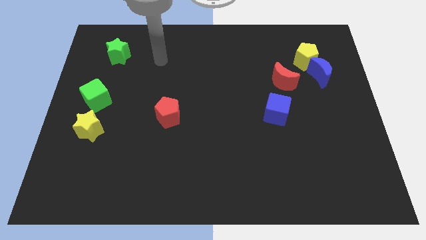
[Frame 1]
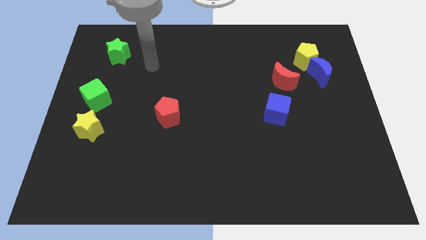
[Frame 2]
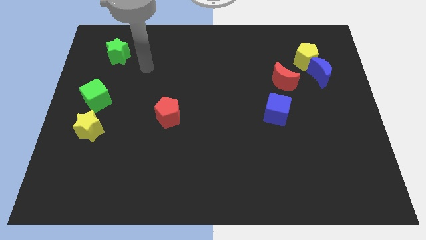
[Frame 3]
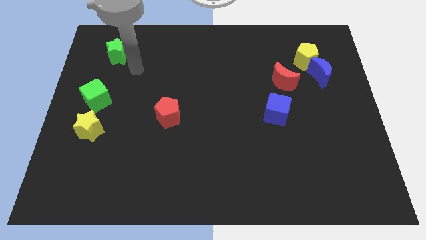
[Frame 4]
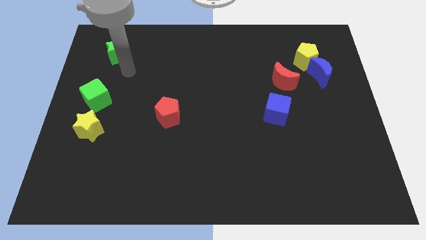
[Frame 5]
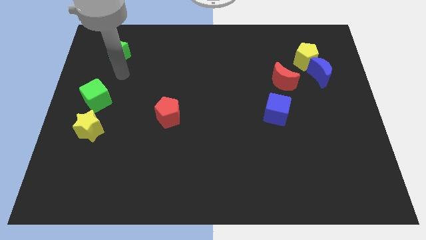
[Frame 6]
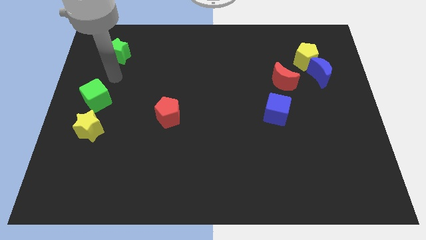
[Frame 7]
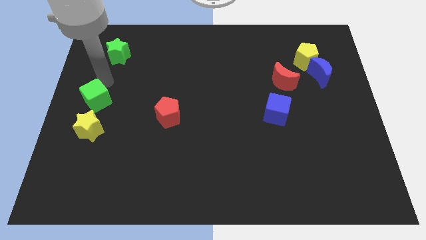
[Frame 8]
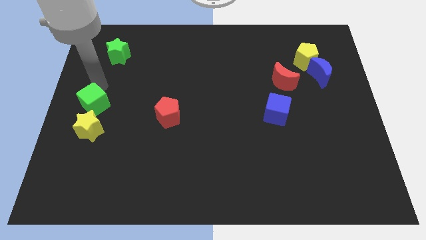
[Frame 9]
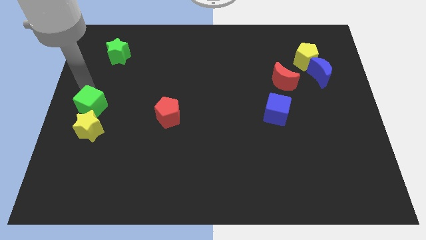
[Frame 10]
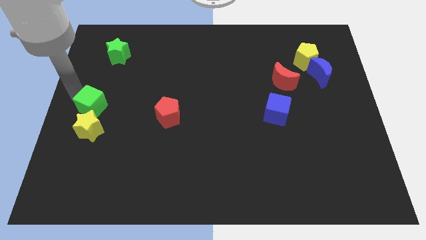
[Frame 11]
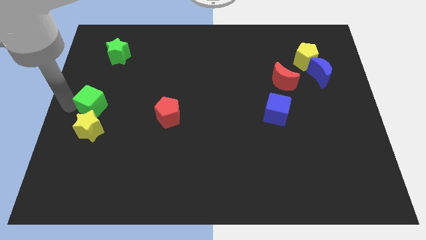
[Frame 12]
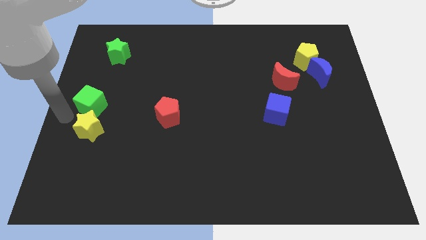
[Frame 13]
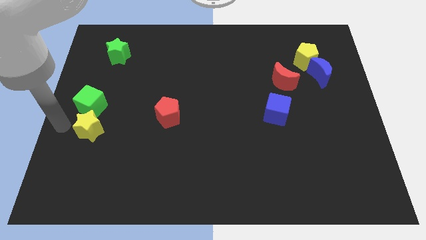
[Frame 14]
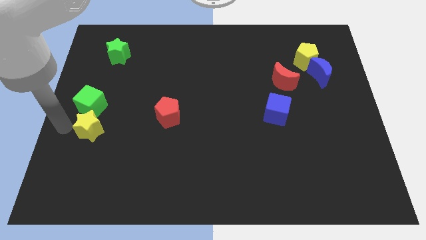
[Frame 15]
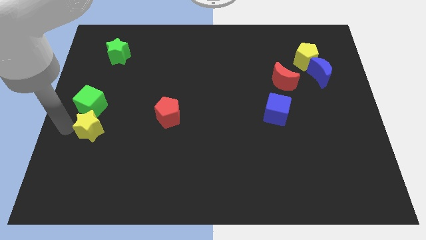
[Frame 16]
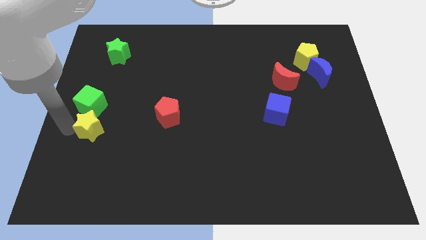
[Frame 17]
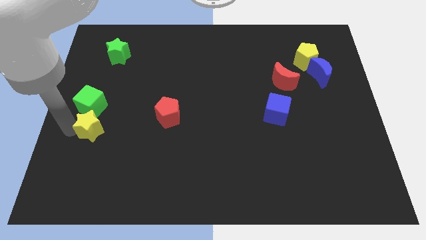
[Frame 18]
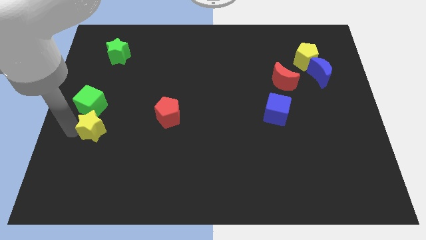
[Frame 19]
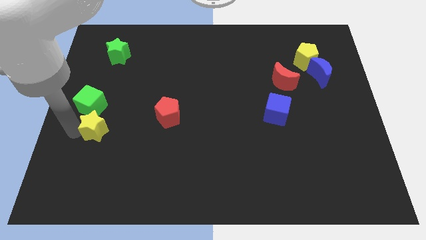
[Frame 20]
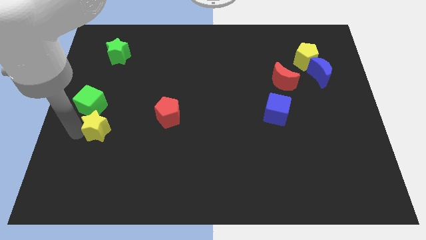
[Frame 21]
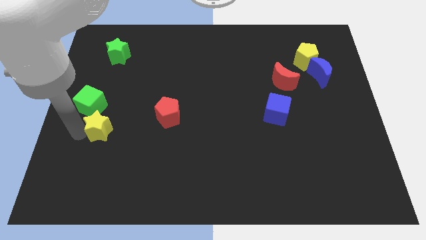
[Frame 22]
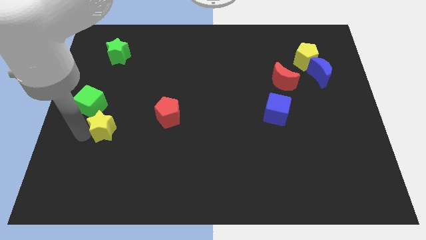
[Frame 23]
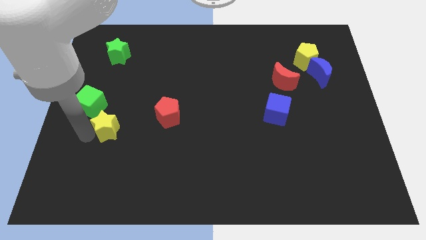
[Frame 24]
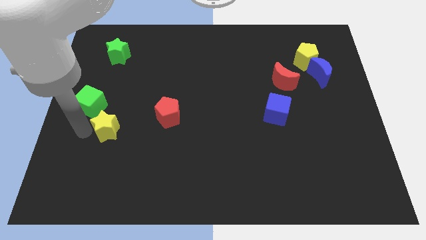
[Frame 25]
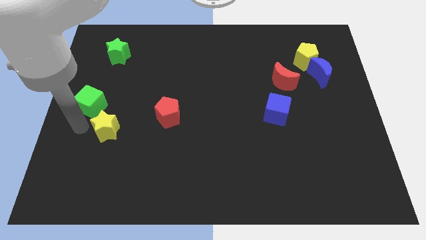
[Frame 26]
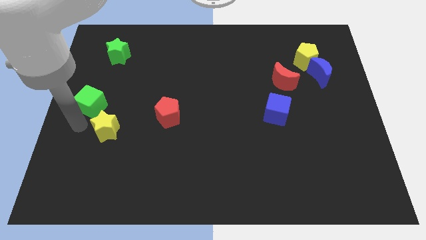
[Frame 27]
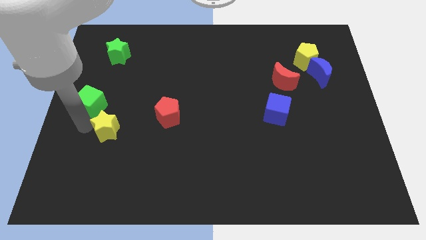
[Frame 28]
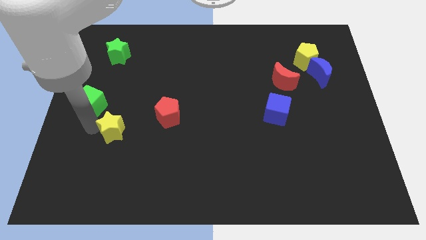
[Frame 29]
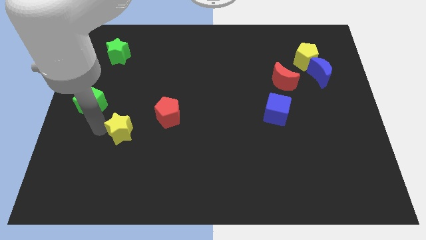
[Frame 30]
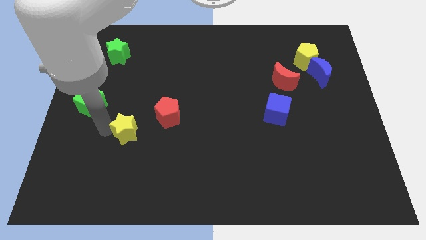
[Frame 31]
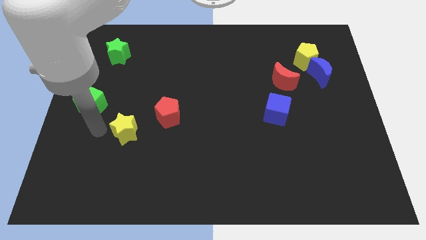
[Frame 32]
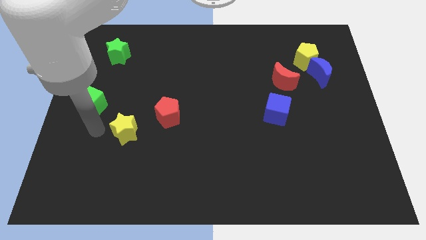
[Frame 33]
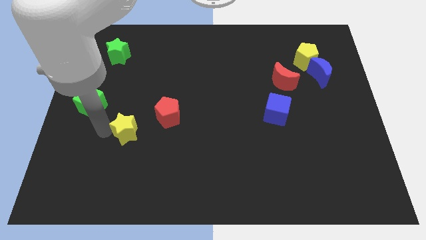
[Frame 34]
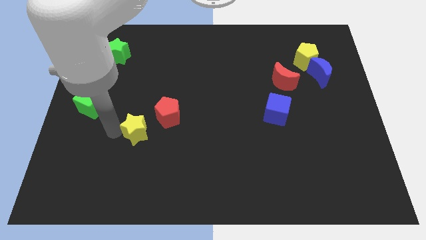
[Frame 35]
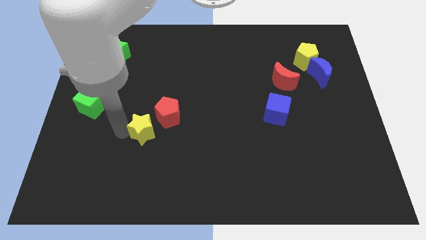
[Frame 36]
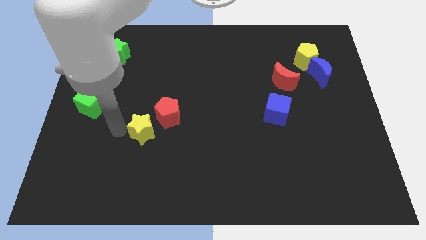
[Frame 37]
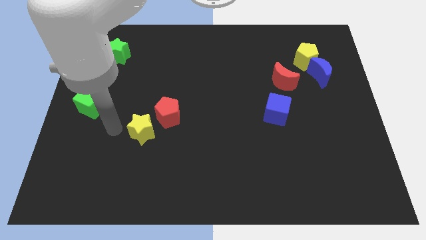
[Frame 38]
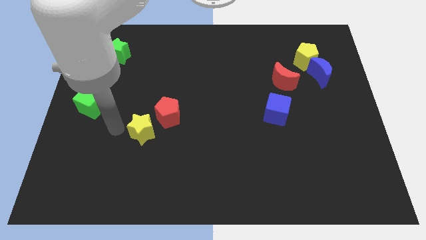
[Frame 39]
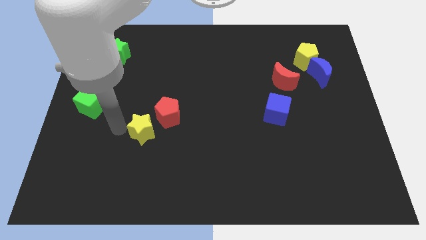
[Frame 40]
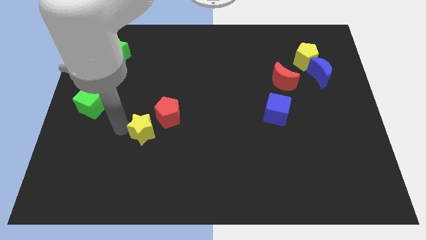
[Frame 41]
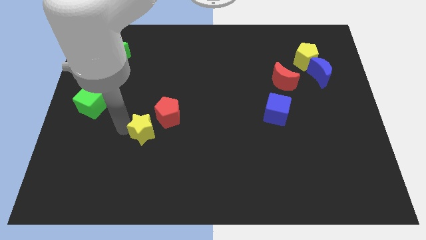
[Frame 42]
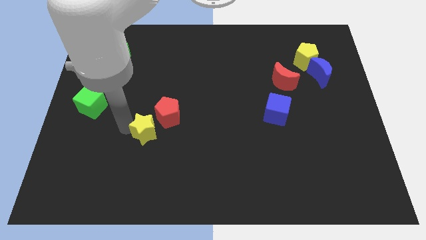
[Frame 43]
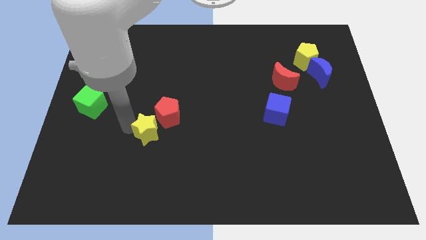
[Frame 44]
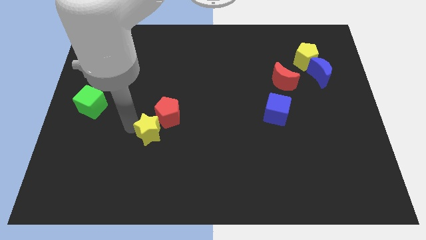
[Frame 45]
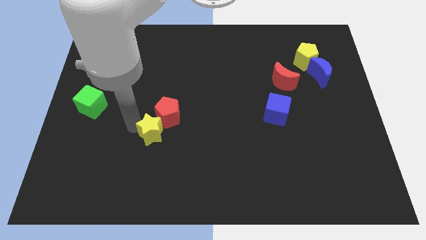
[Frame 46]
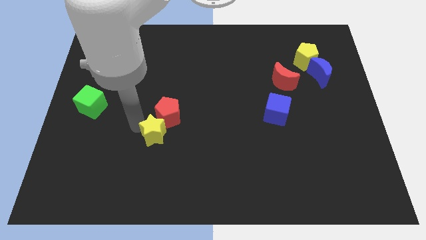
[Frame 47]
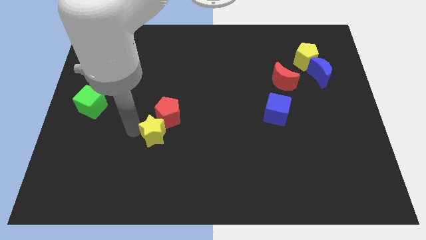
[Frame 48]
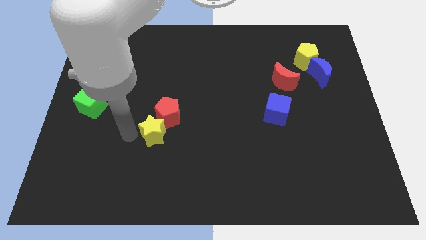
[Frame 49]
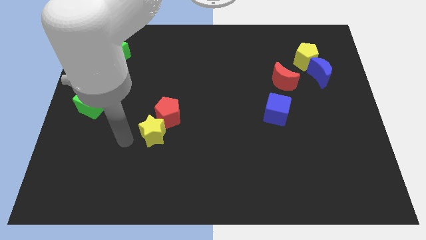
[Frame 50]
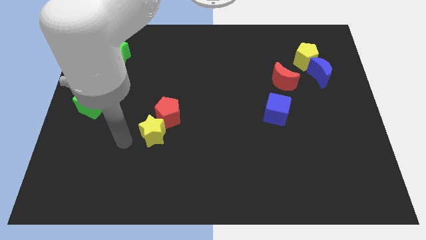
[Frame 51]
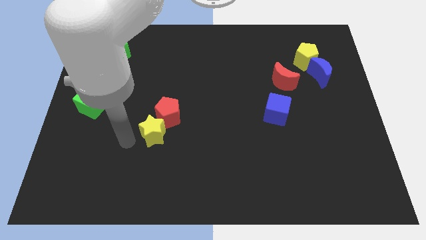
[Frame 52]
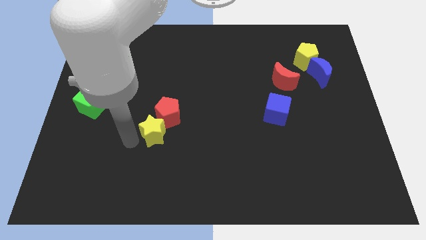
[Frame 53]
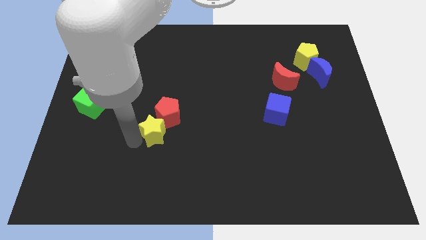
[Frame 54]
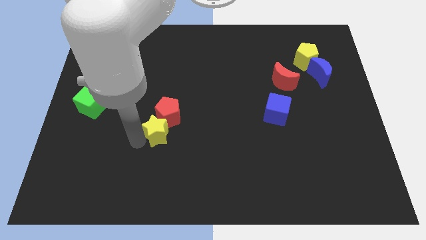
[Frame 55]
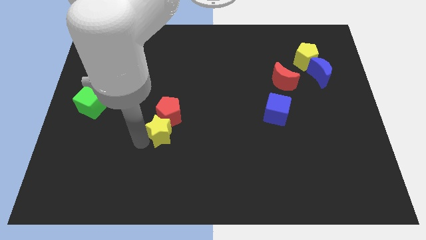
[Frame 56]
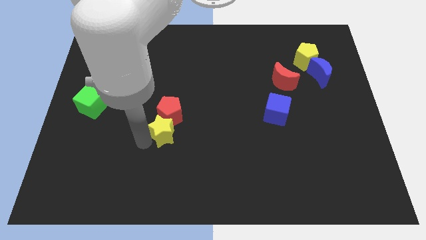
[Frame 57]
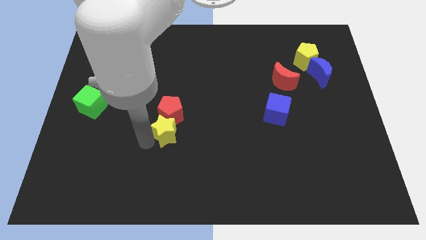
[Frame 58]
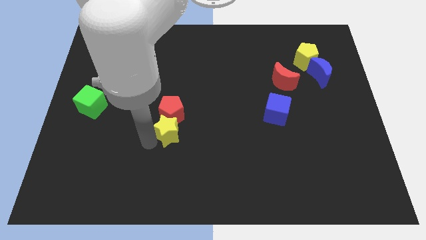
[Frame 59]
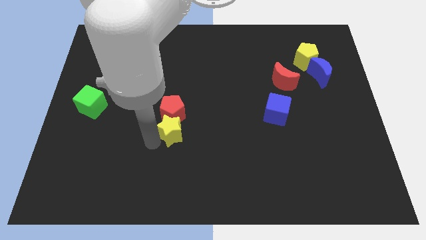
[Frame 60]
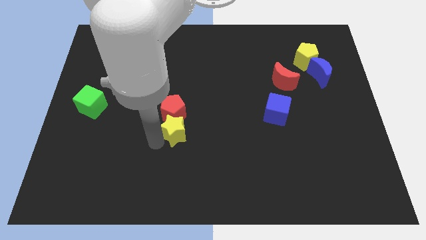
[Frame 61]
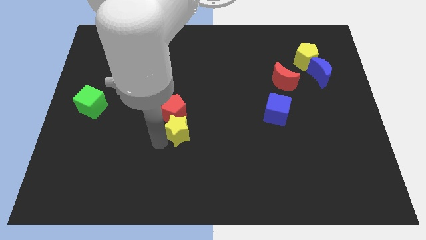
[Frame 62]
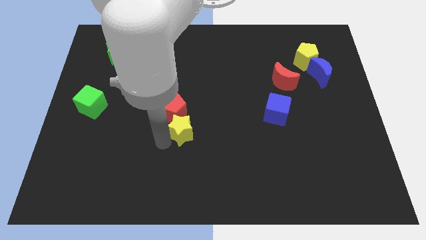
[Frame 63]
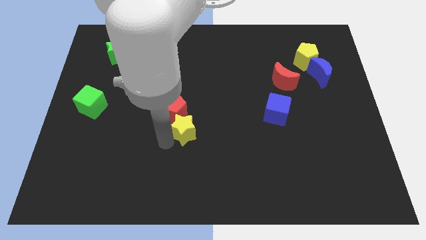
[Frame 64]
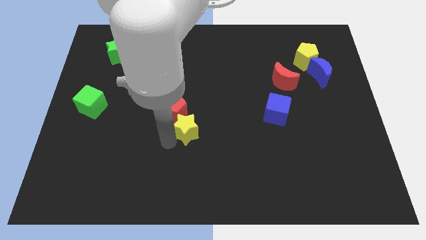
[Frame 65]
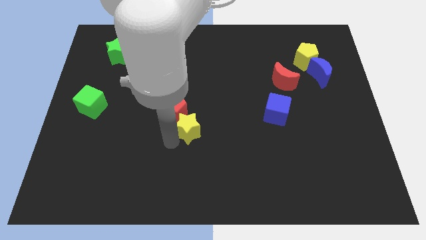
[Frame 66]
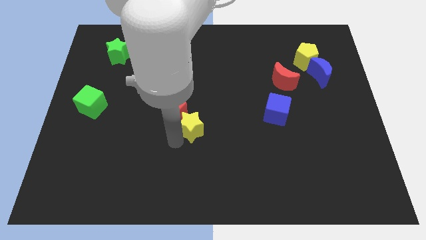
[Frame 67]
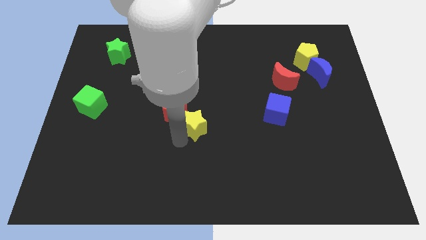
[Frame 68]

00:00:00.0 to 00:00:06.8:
put the yellow star right of the red pentagon
